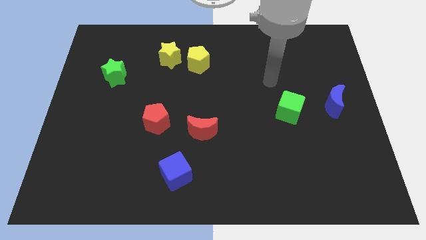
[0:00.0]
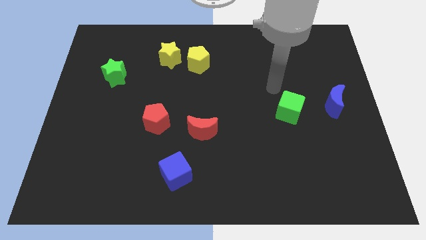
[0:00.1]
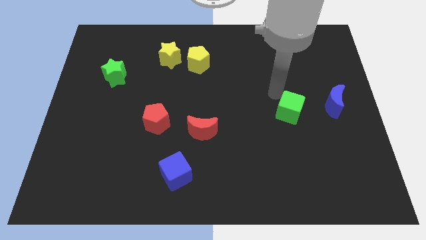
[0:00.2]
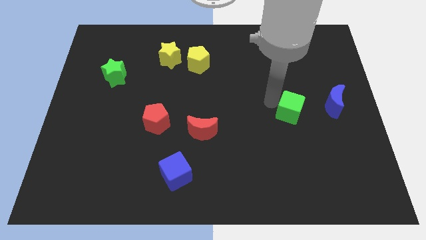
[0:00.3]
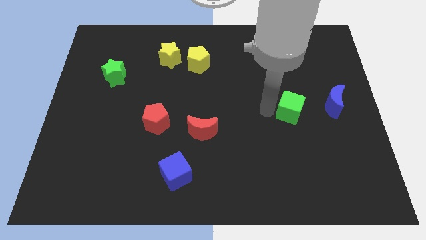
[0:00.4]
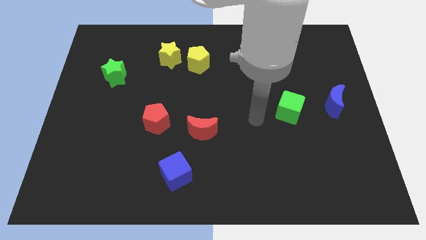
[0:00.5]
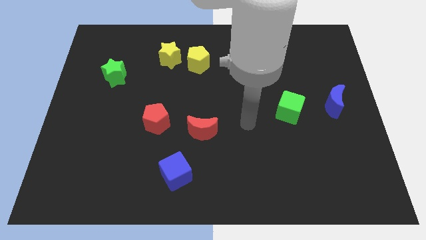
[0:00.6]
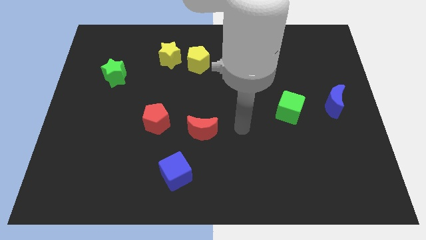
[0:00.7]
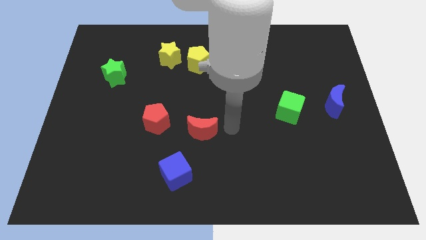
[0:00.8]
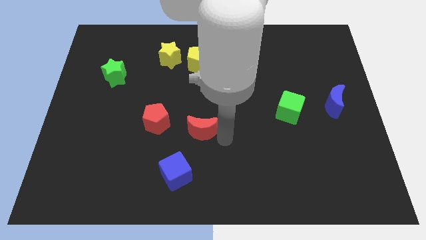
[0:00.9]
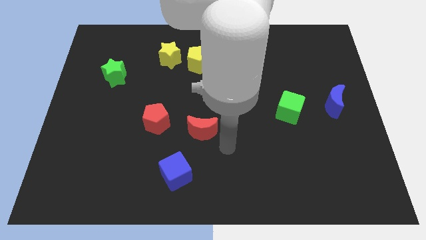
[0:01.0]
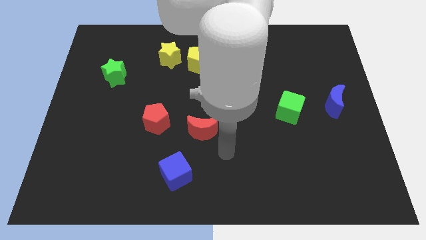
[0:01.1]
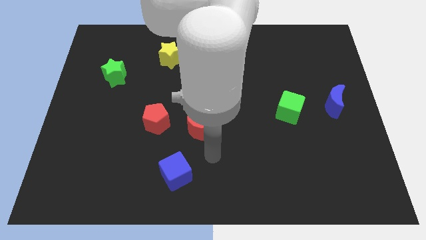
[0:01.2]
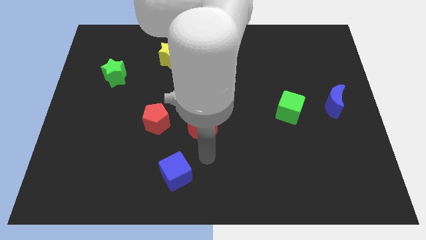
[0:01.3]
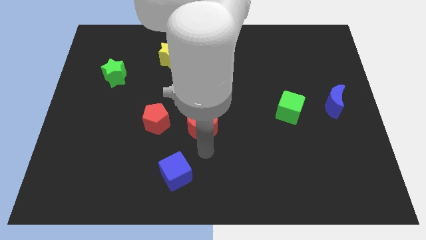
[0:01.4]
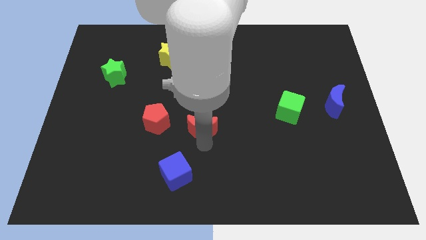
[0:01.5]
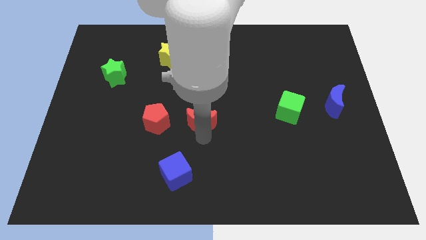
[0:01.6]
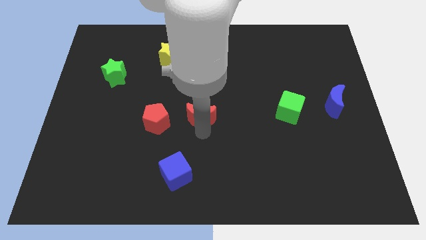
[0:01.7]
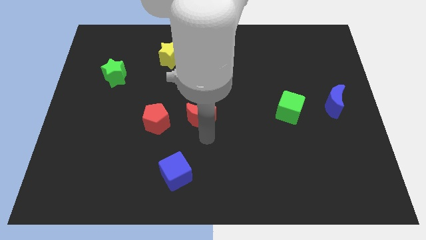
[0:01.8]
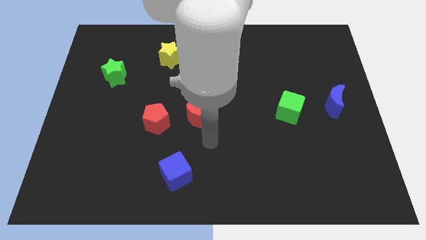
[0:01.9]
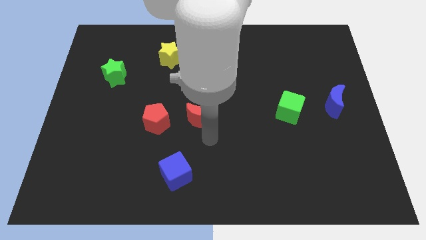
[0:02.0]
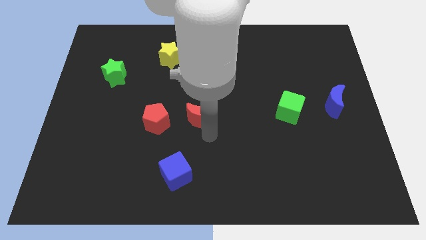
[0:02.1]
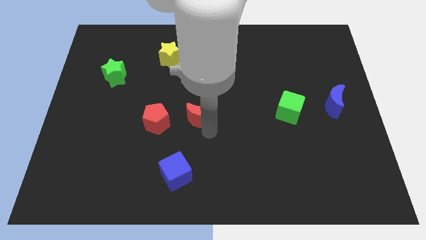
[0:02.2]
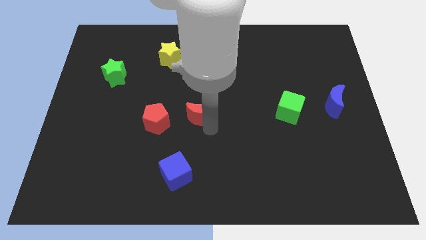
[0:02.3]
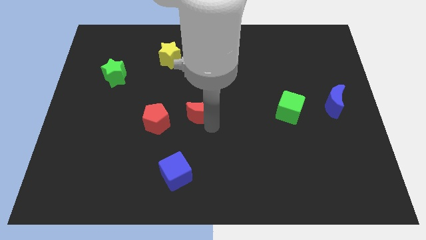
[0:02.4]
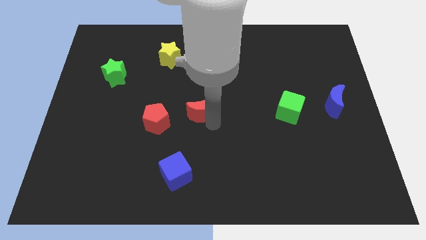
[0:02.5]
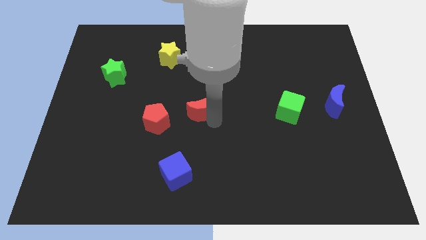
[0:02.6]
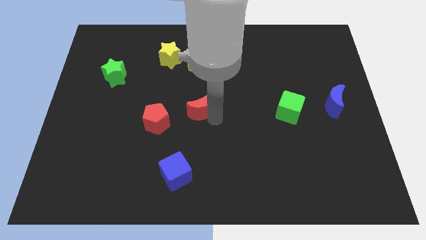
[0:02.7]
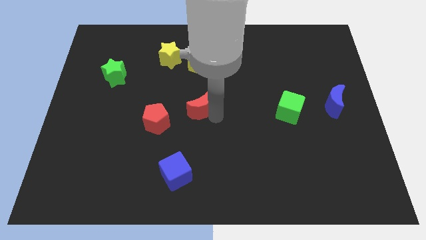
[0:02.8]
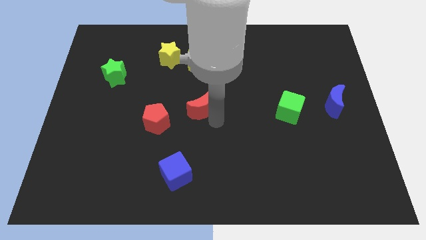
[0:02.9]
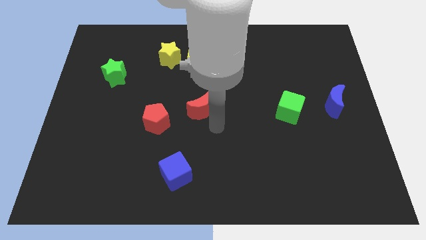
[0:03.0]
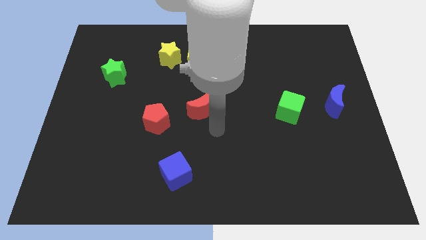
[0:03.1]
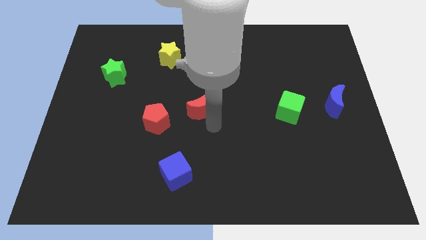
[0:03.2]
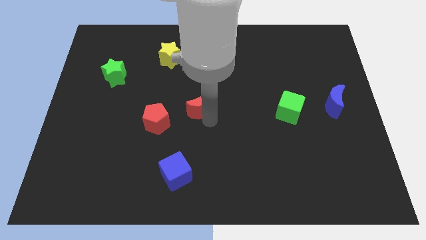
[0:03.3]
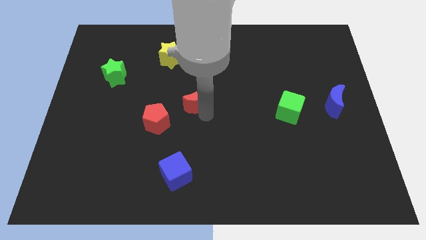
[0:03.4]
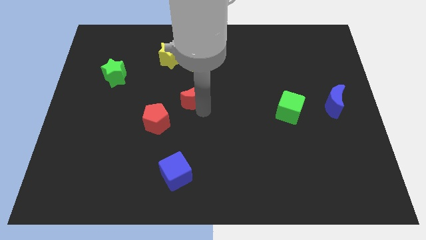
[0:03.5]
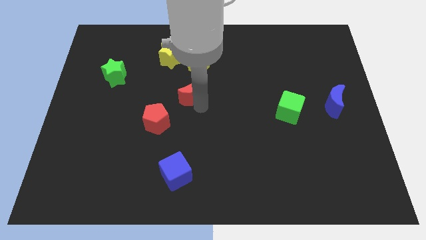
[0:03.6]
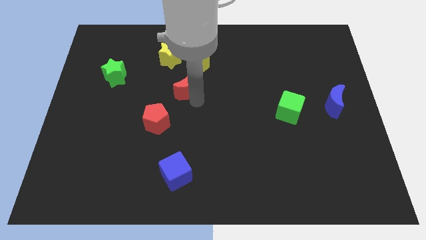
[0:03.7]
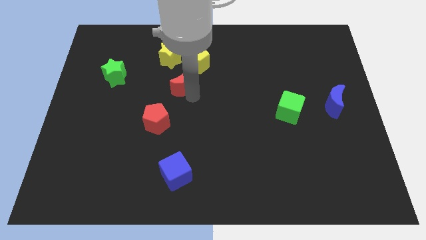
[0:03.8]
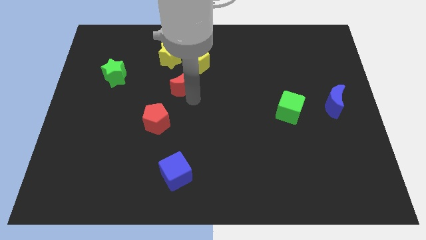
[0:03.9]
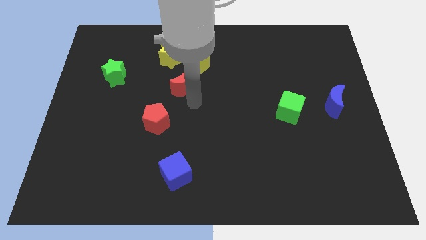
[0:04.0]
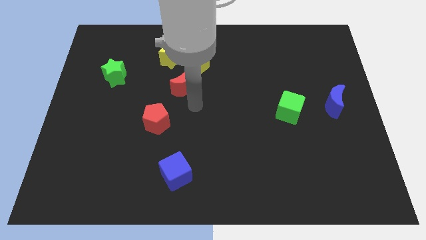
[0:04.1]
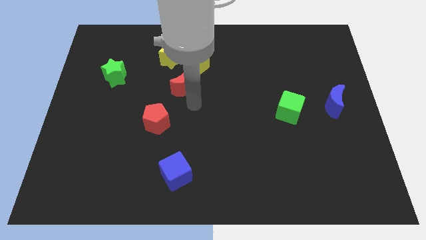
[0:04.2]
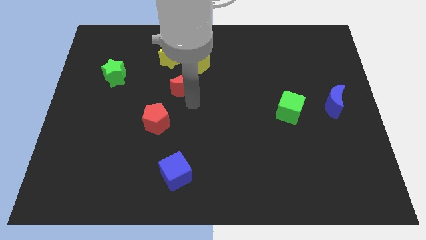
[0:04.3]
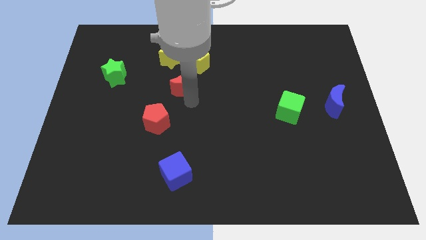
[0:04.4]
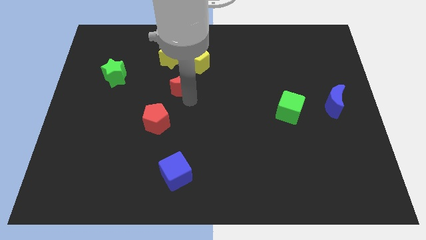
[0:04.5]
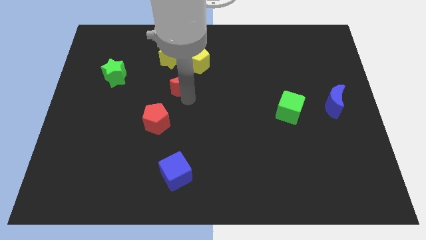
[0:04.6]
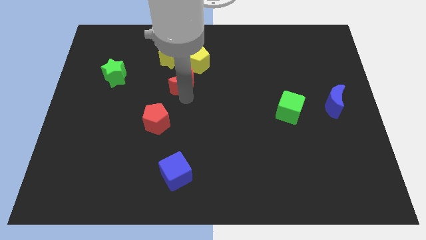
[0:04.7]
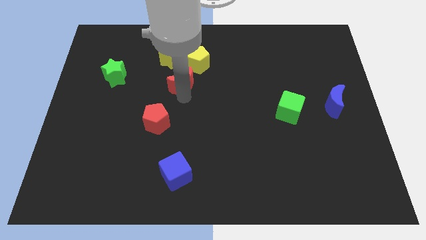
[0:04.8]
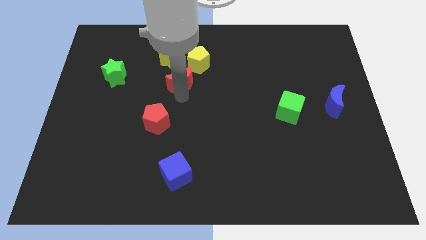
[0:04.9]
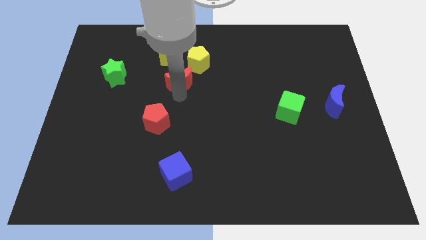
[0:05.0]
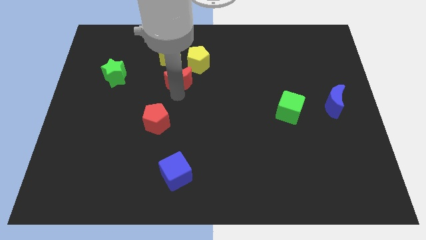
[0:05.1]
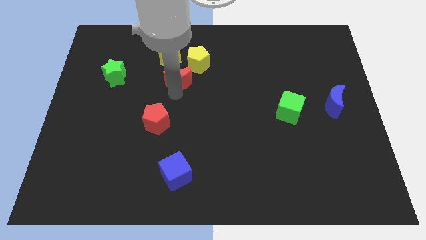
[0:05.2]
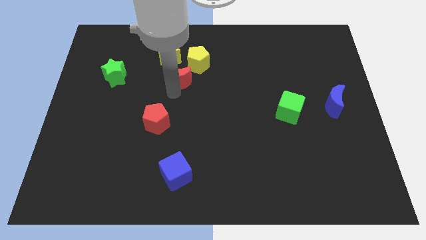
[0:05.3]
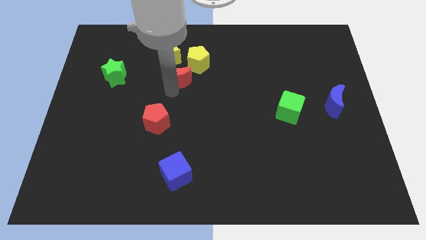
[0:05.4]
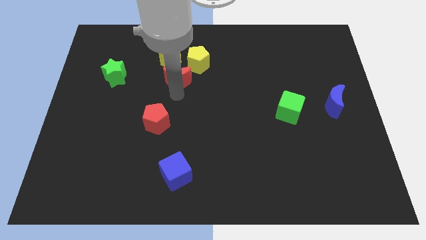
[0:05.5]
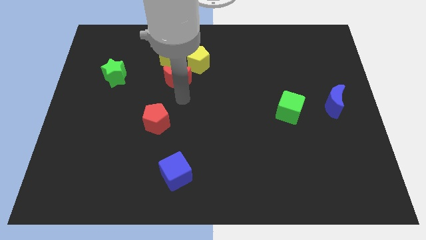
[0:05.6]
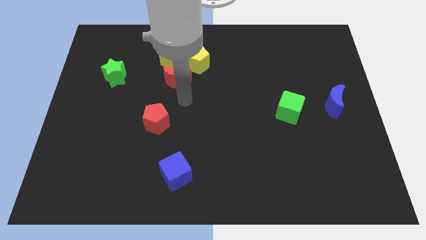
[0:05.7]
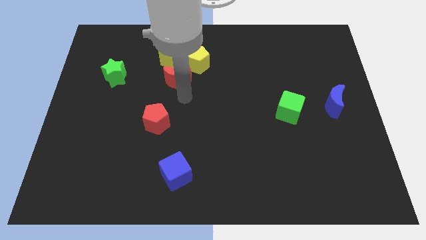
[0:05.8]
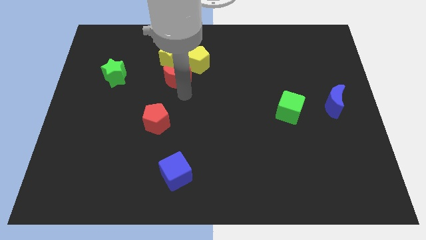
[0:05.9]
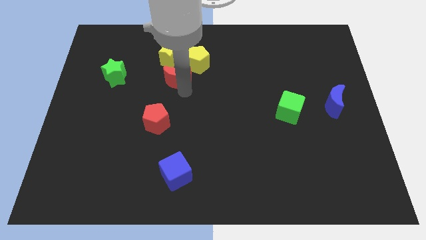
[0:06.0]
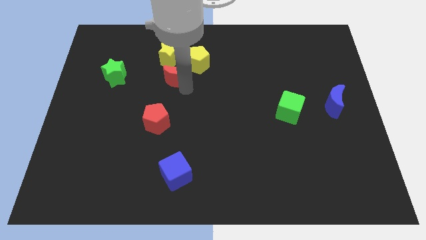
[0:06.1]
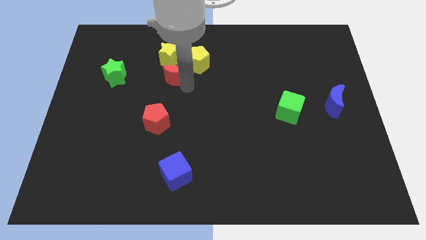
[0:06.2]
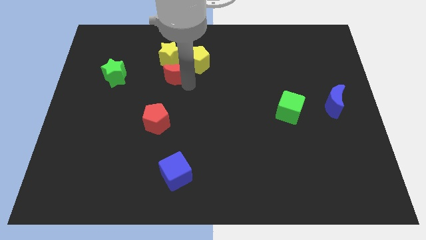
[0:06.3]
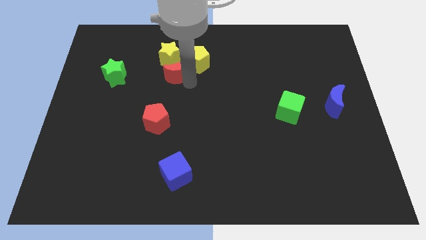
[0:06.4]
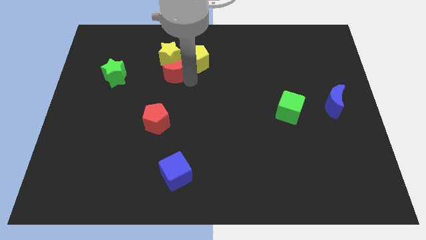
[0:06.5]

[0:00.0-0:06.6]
move the red moon to the yellow star
